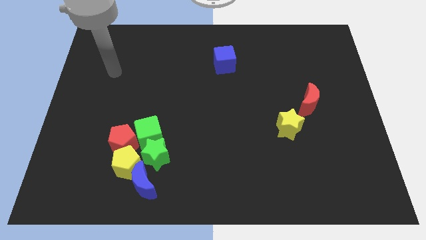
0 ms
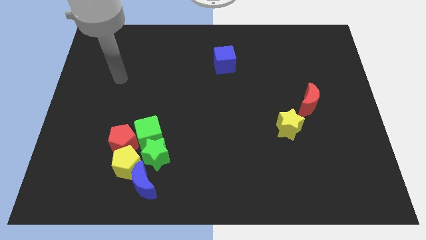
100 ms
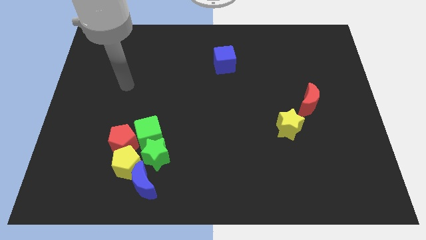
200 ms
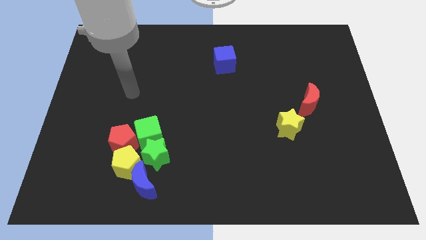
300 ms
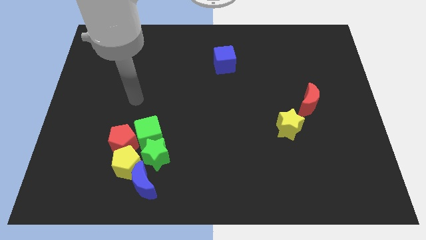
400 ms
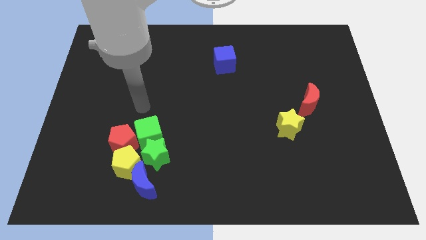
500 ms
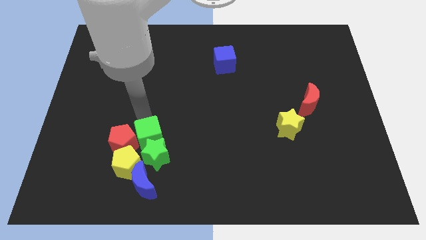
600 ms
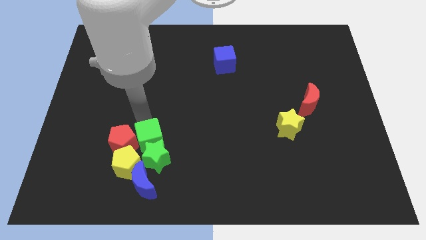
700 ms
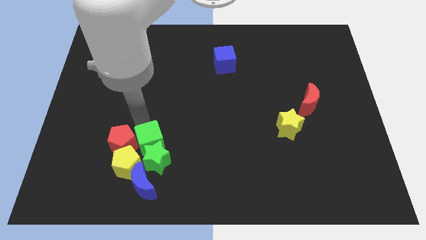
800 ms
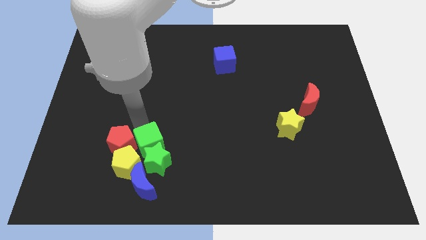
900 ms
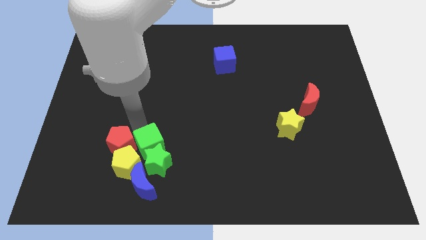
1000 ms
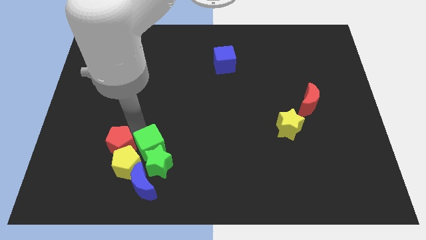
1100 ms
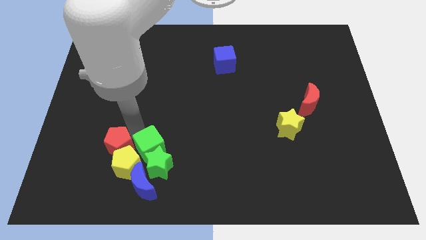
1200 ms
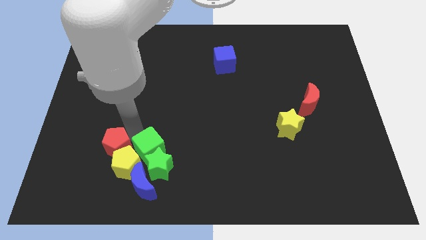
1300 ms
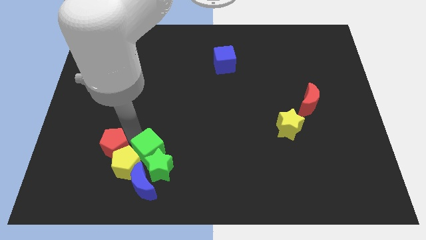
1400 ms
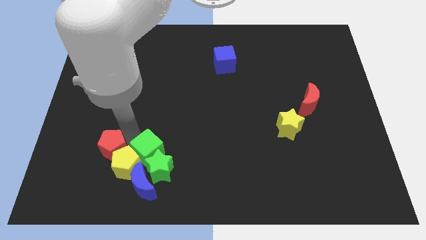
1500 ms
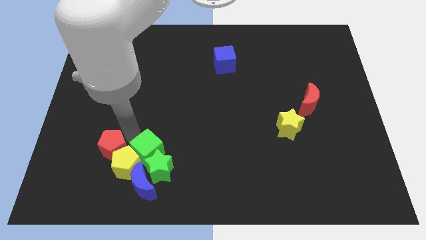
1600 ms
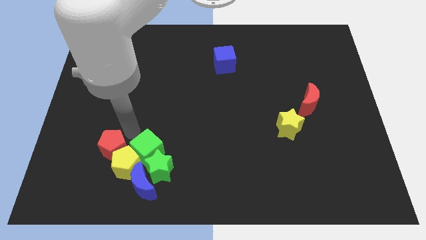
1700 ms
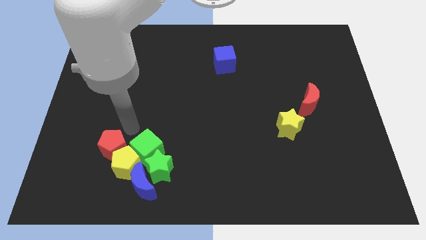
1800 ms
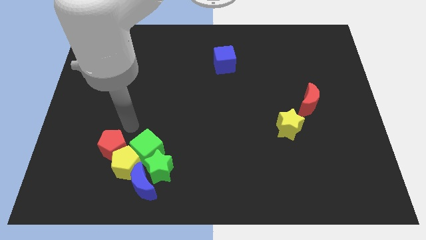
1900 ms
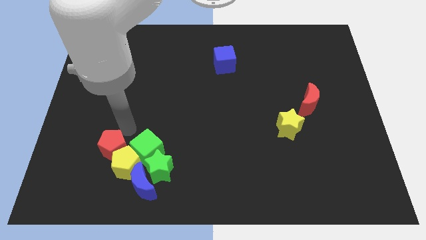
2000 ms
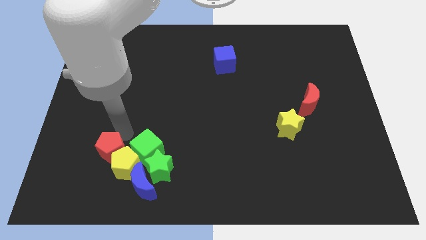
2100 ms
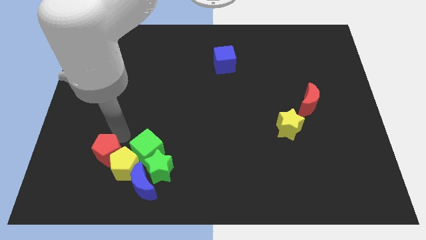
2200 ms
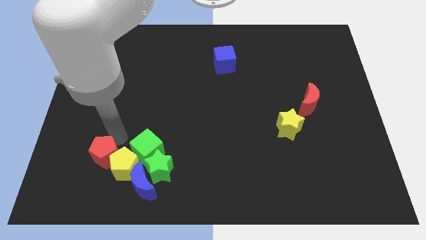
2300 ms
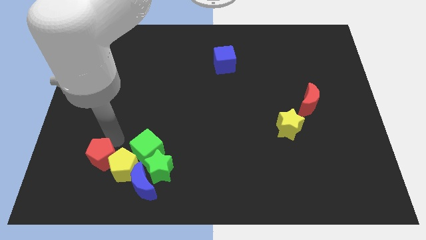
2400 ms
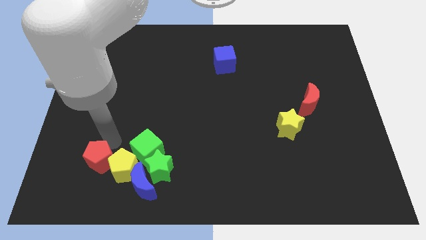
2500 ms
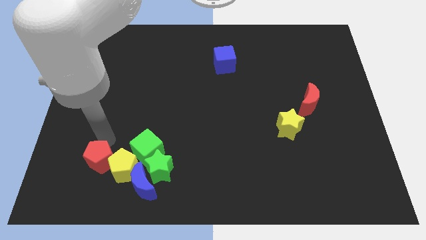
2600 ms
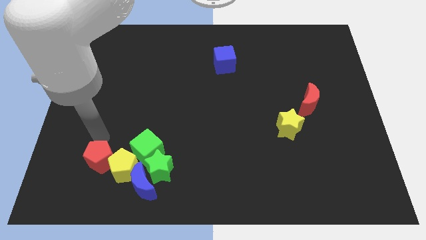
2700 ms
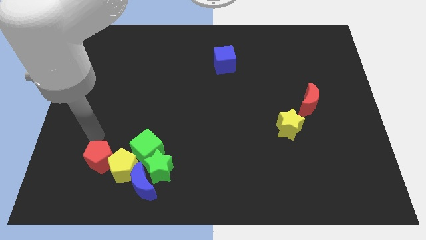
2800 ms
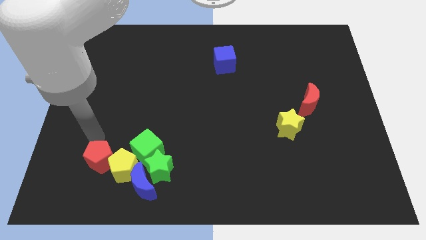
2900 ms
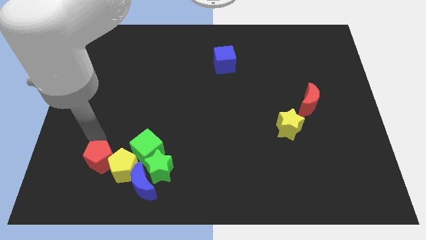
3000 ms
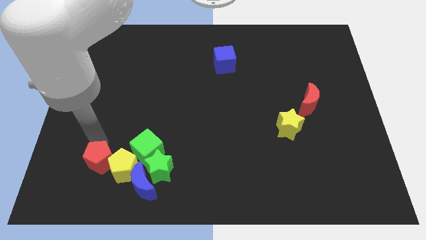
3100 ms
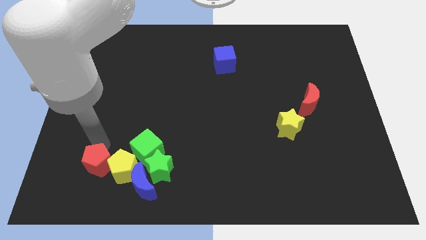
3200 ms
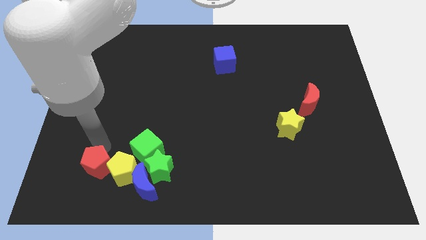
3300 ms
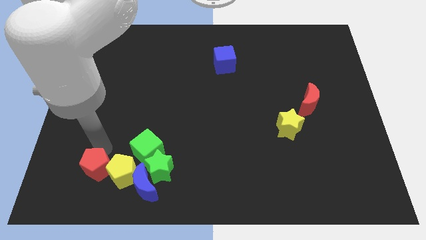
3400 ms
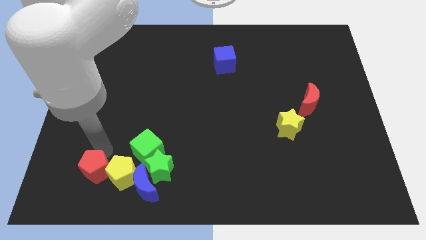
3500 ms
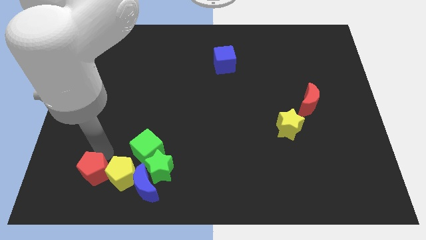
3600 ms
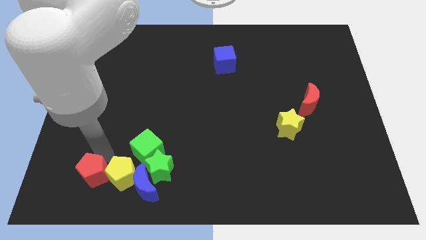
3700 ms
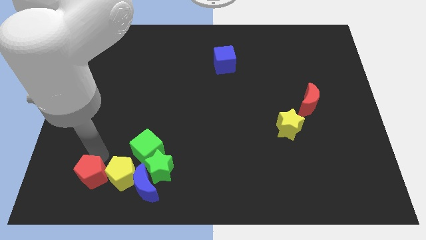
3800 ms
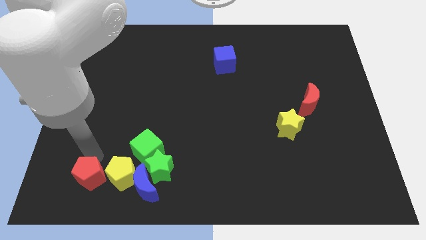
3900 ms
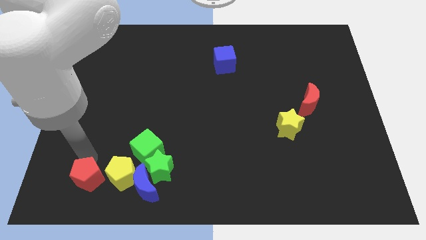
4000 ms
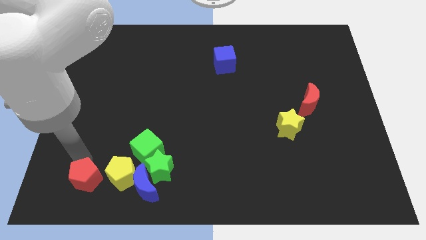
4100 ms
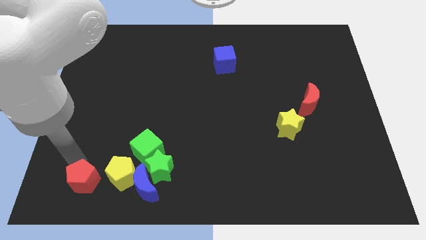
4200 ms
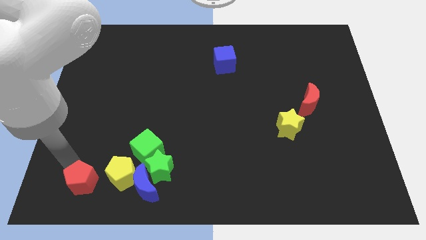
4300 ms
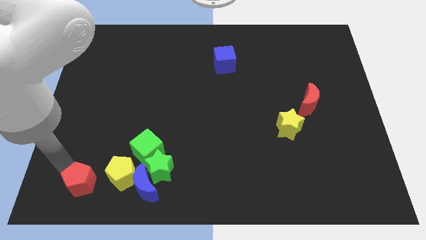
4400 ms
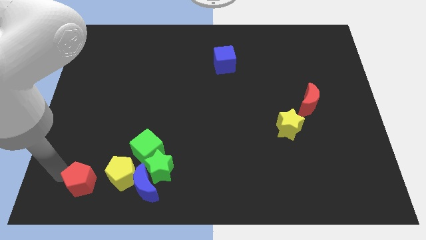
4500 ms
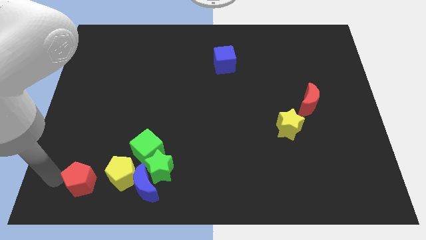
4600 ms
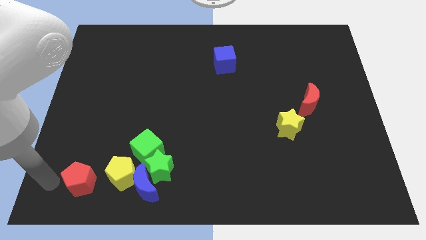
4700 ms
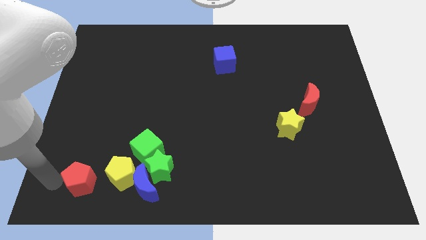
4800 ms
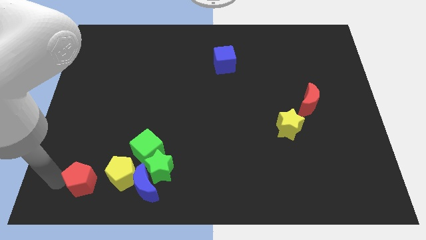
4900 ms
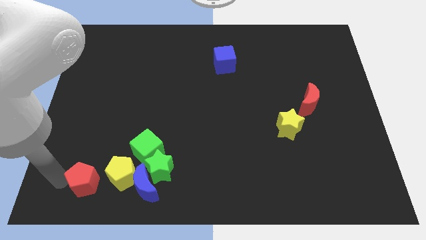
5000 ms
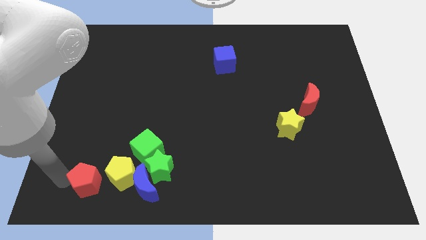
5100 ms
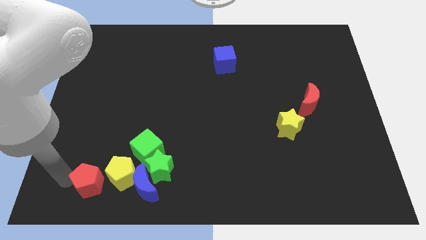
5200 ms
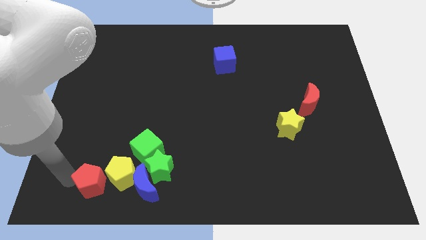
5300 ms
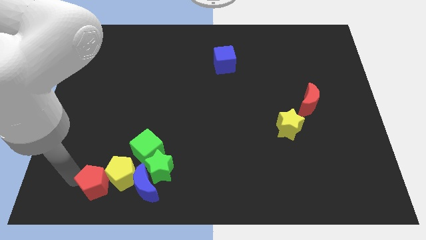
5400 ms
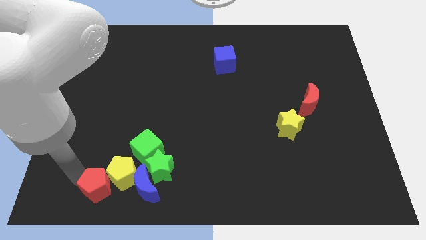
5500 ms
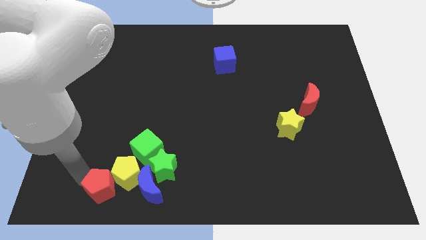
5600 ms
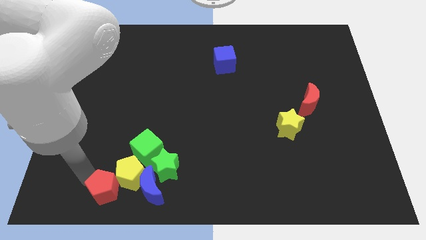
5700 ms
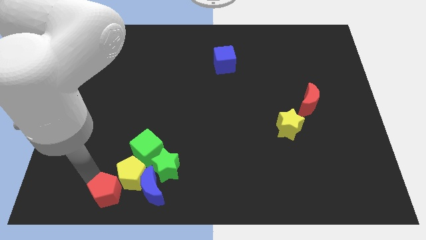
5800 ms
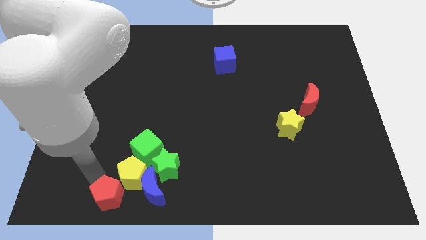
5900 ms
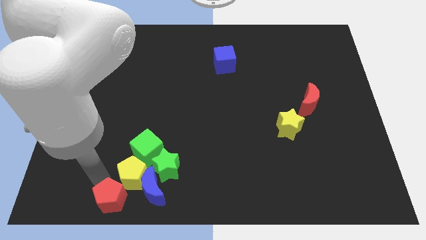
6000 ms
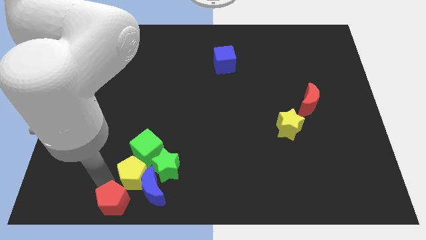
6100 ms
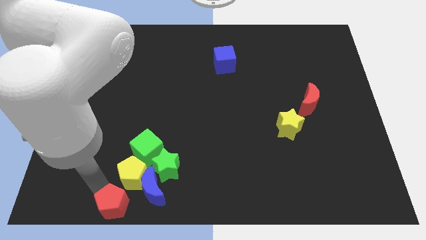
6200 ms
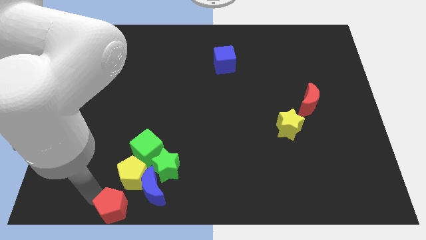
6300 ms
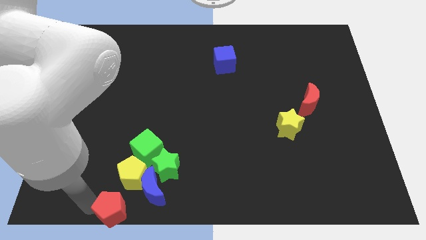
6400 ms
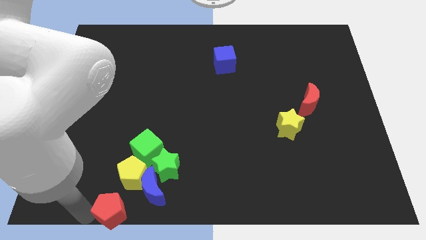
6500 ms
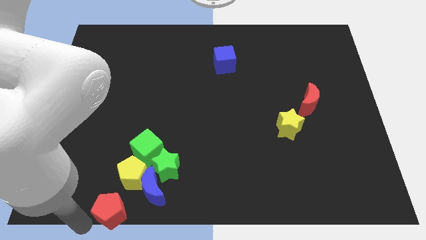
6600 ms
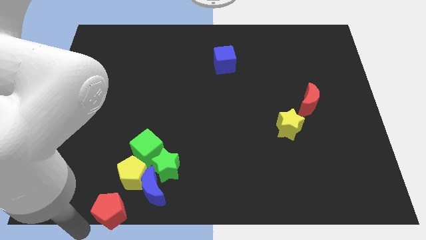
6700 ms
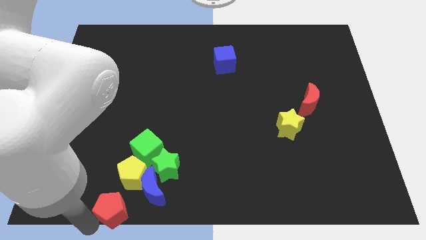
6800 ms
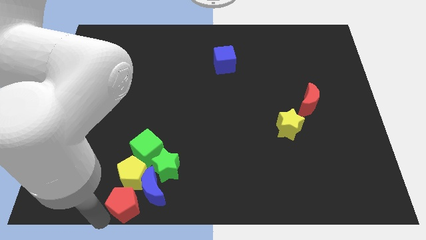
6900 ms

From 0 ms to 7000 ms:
put the red pentagon towards the blue moon
